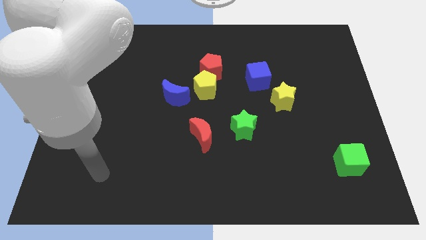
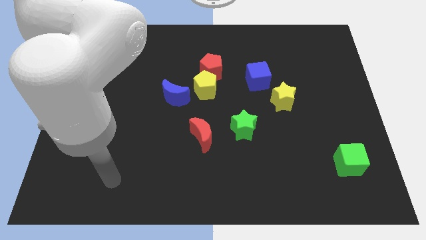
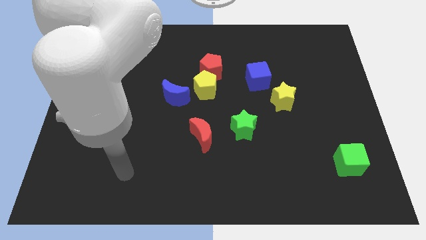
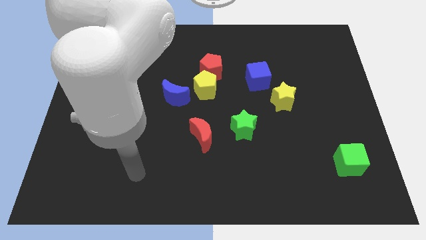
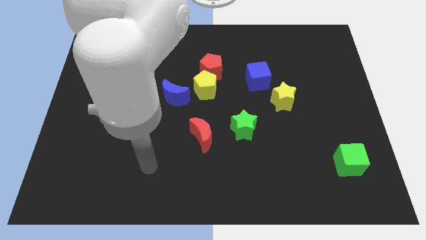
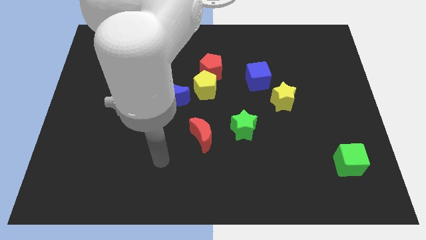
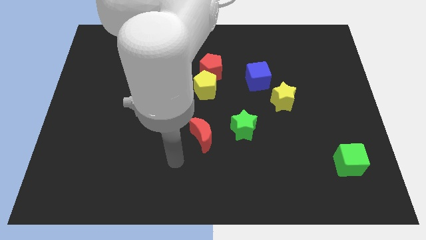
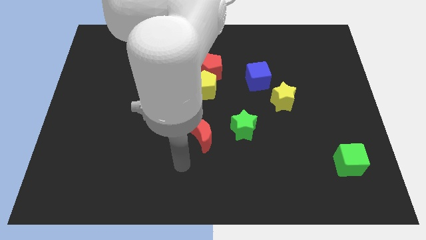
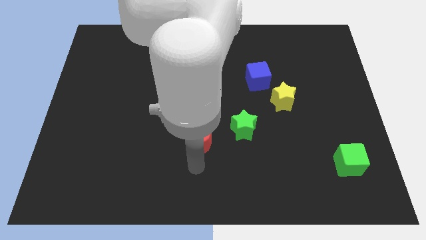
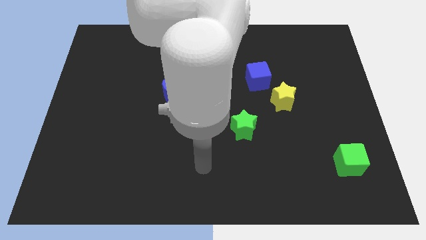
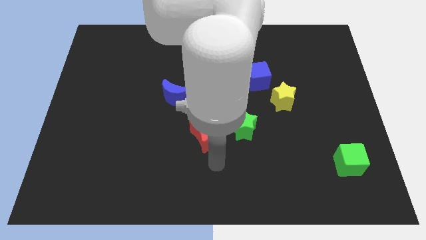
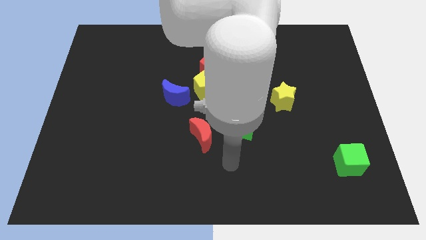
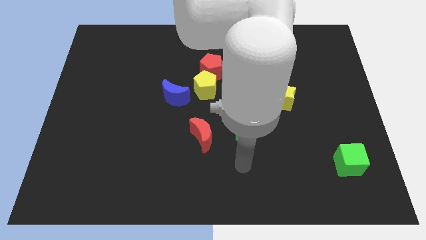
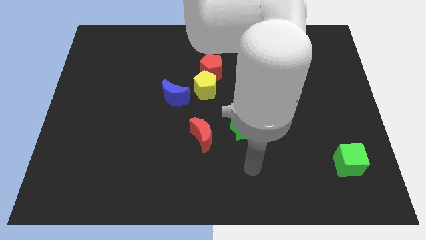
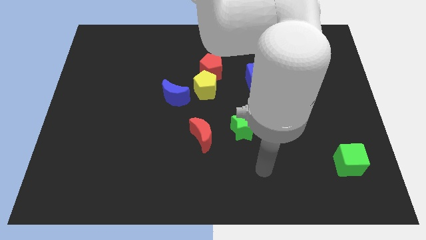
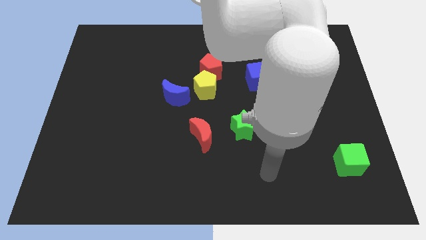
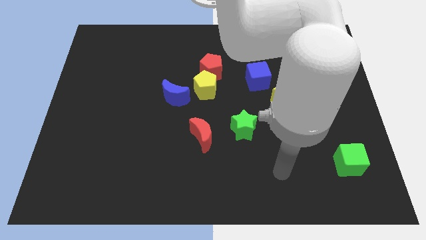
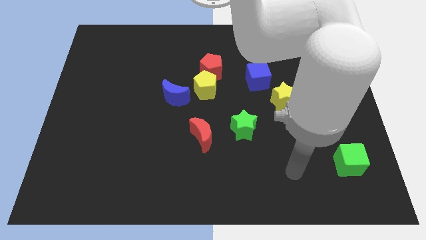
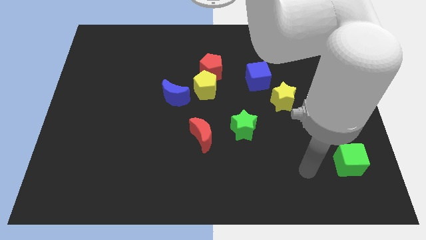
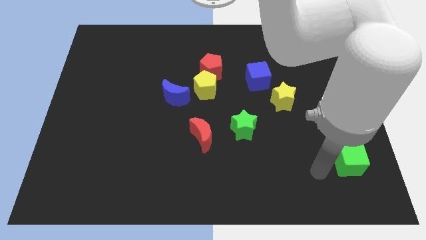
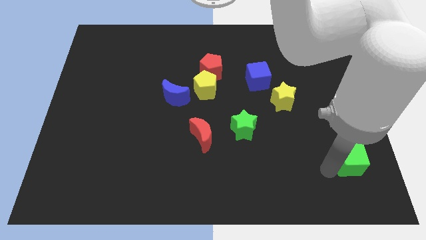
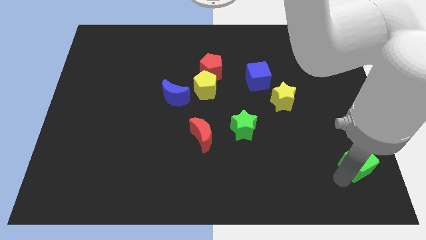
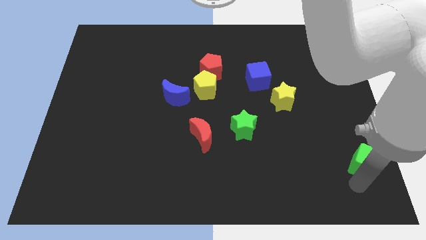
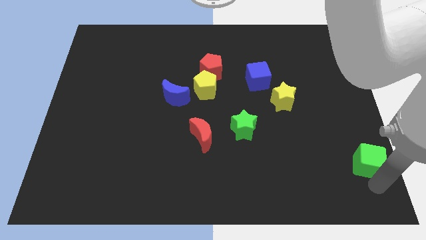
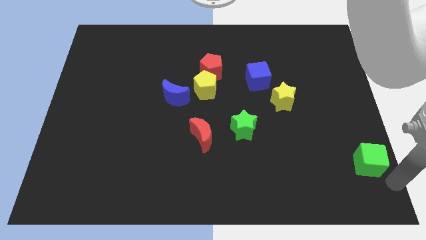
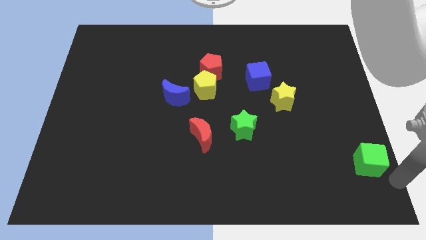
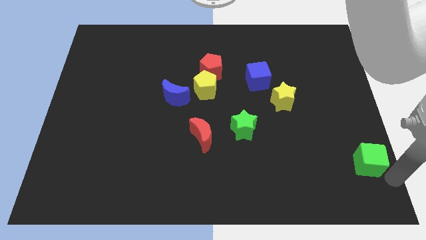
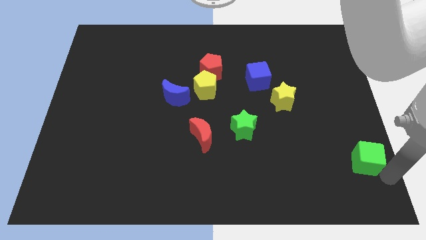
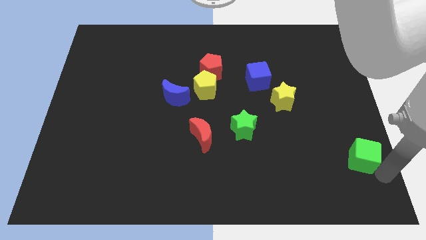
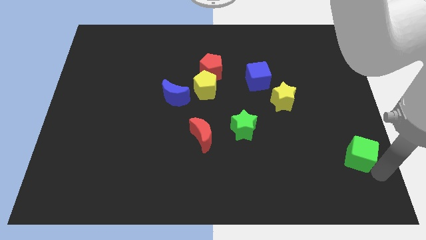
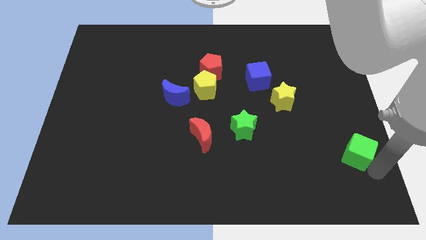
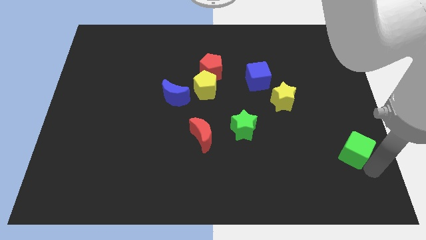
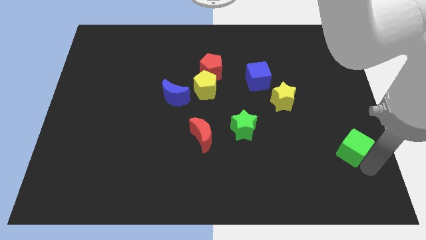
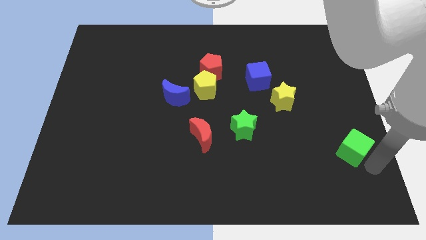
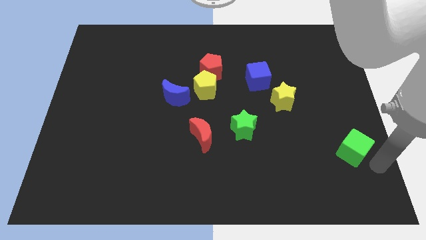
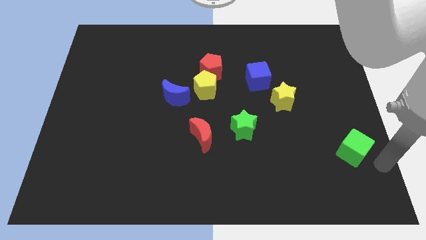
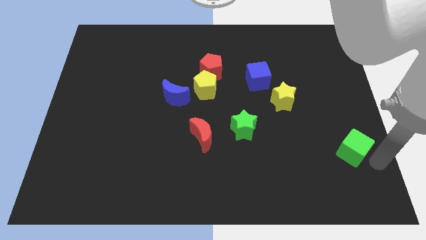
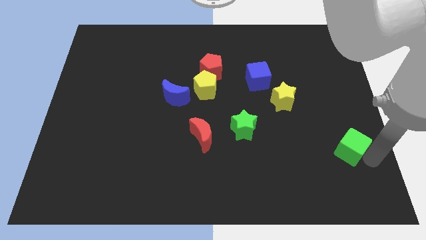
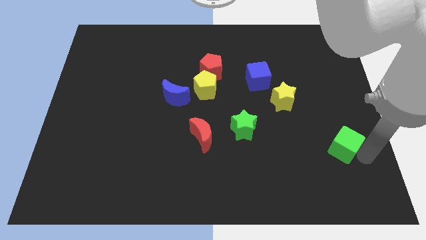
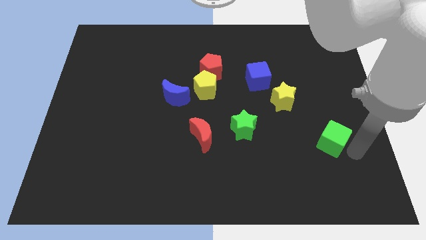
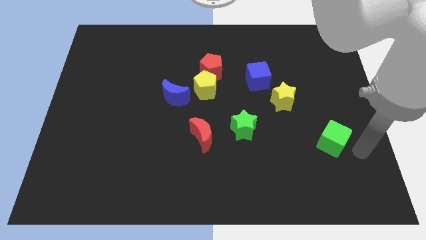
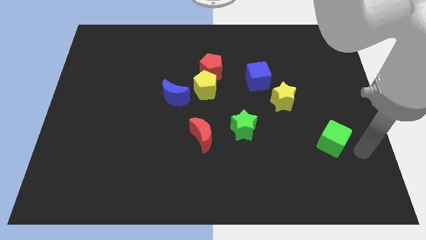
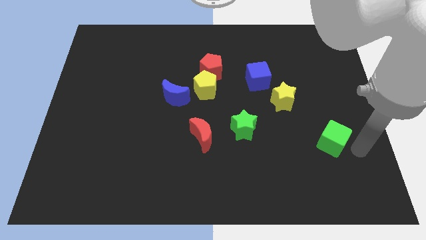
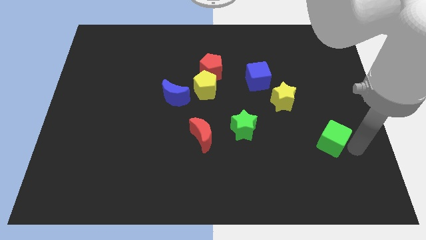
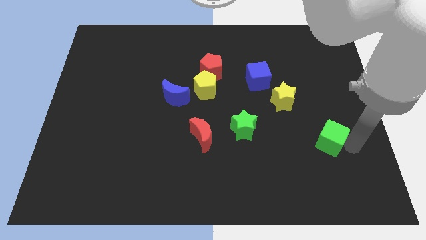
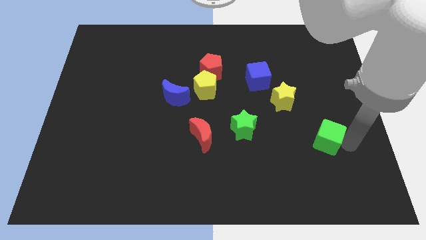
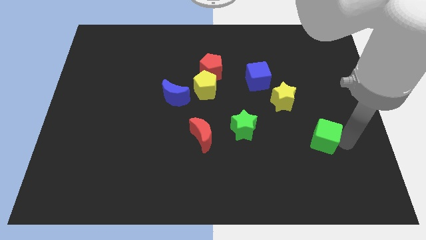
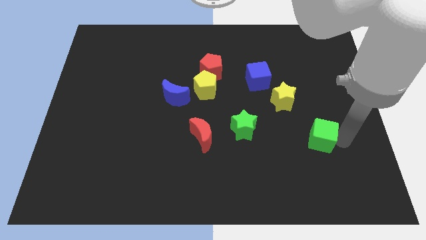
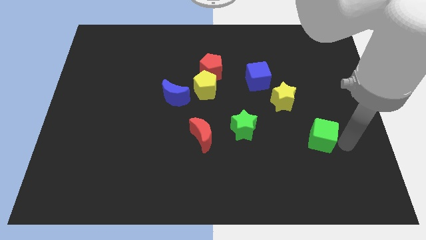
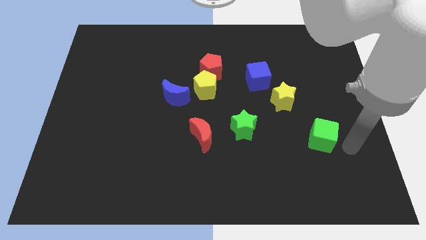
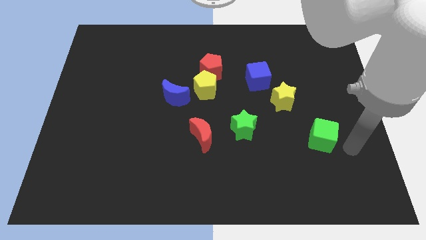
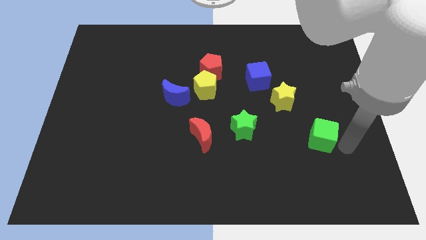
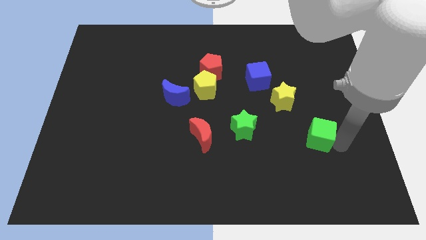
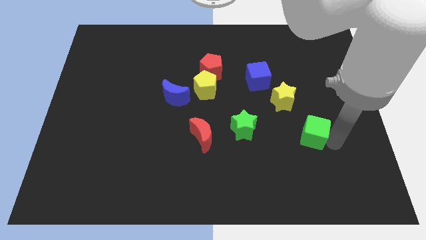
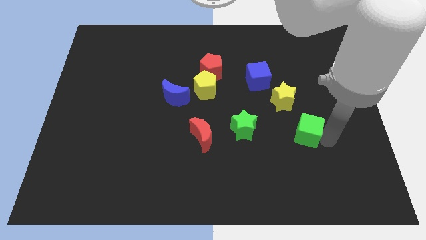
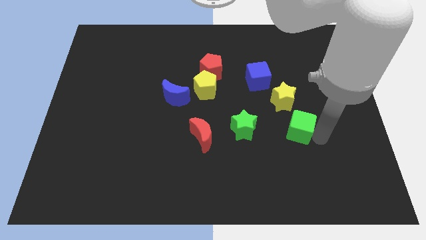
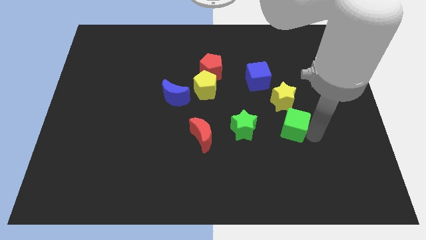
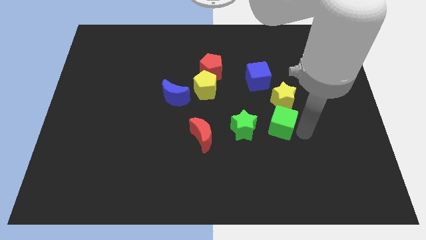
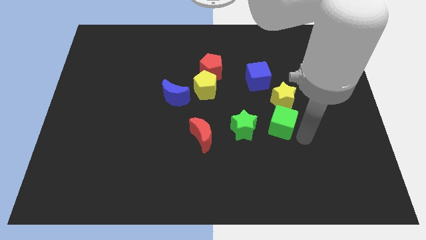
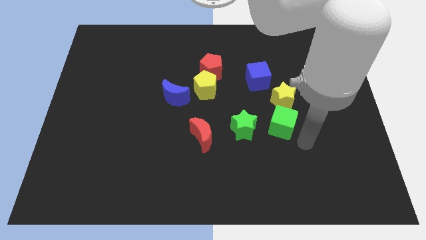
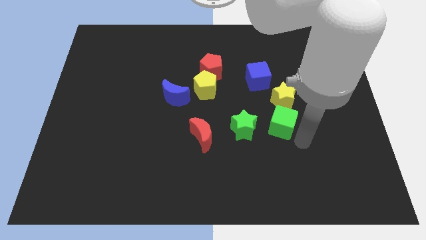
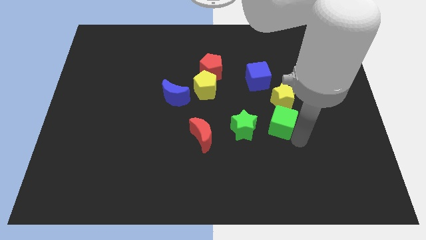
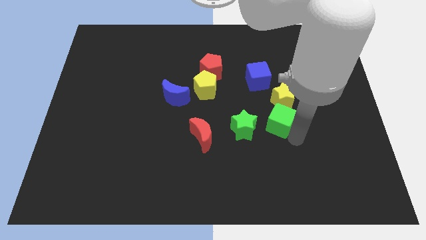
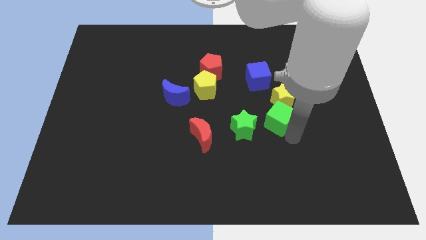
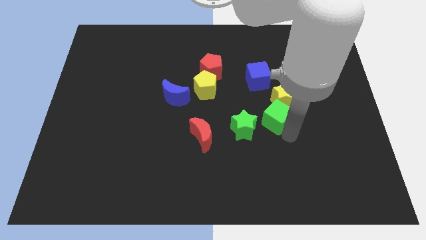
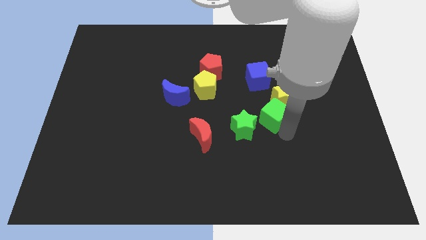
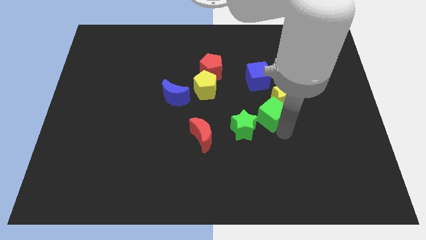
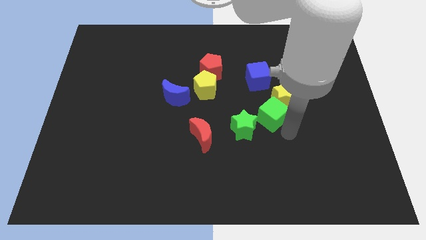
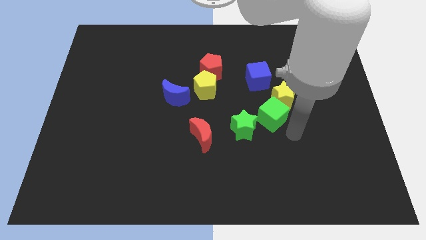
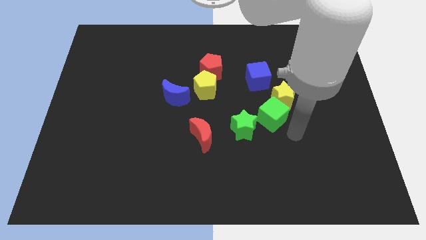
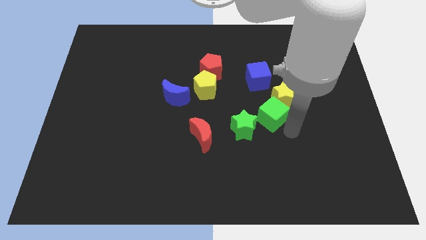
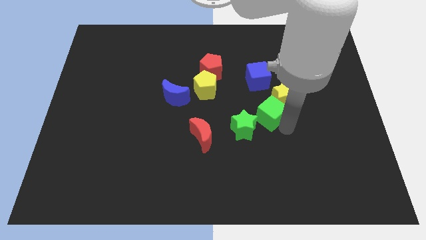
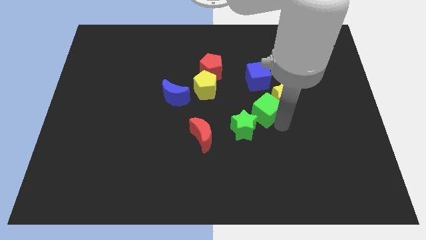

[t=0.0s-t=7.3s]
slide the green cube upwards and to the left

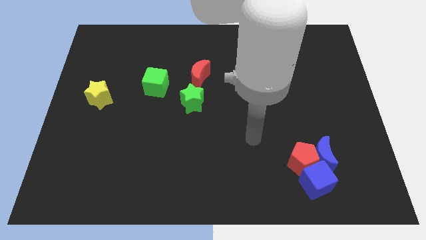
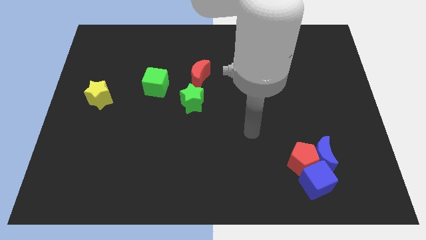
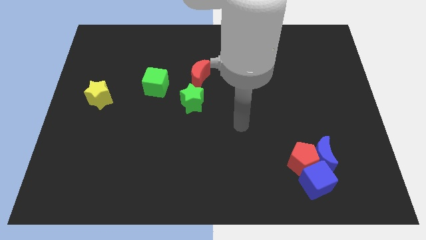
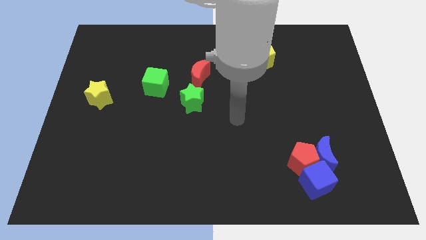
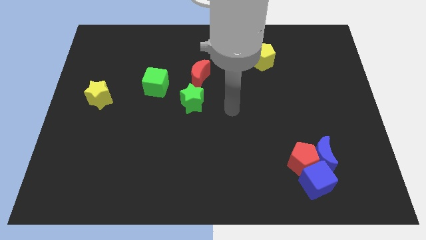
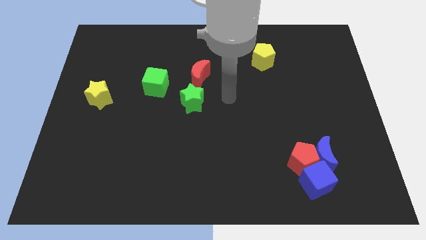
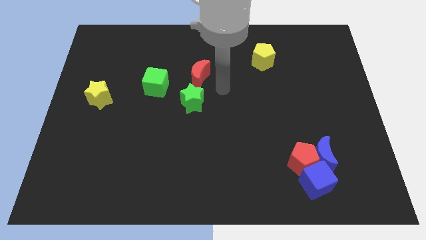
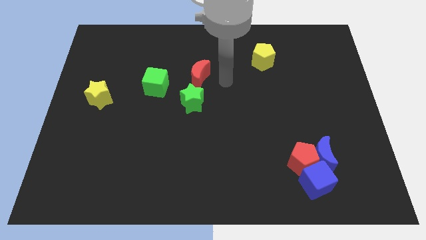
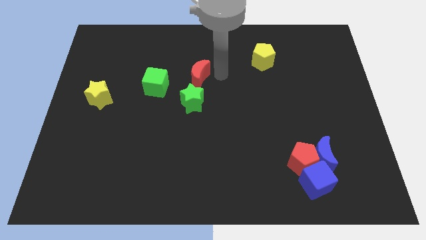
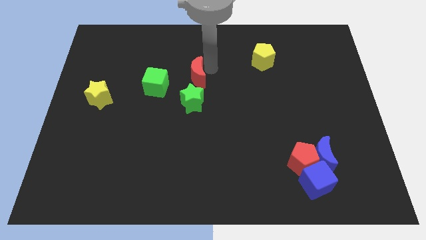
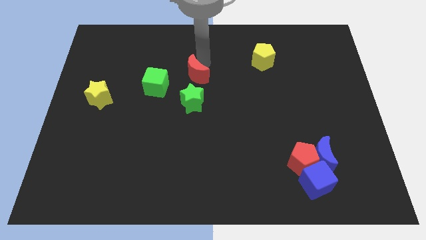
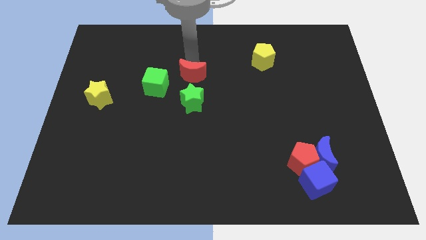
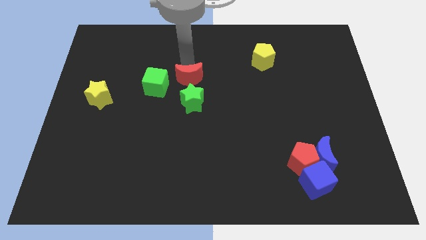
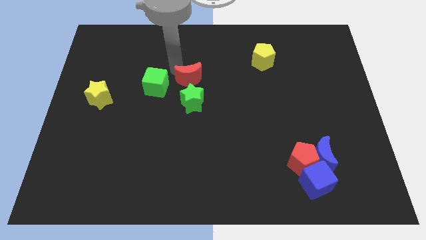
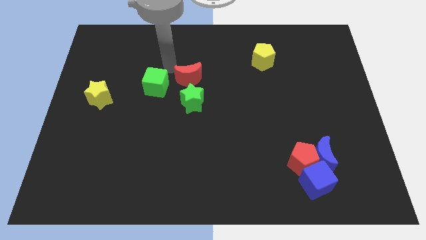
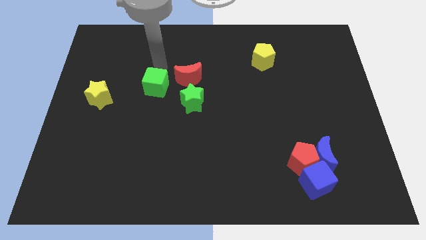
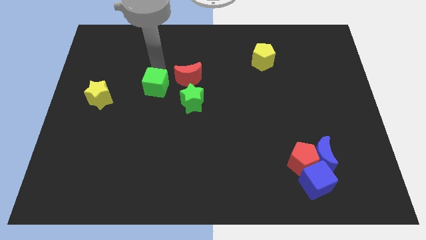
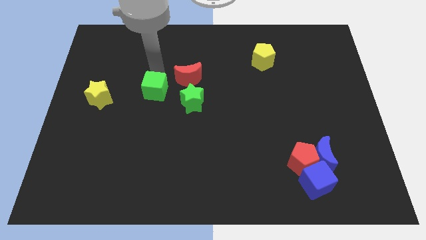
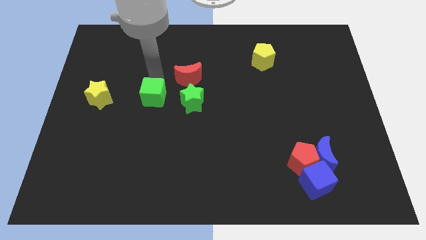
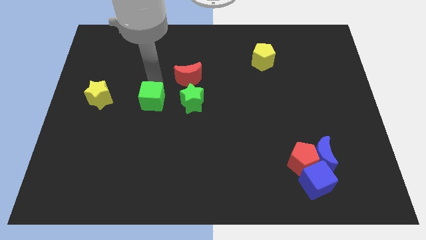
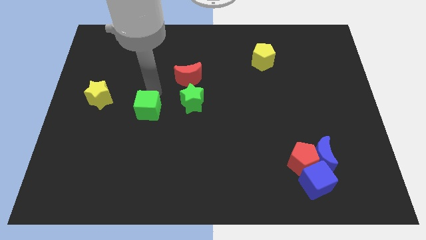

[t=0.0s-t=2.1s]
slide the green cube slightly downwards
